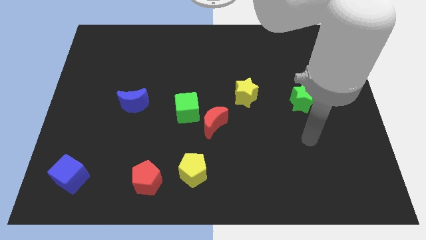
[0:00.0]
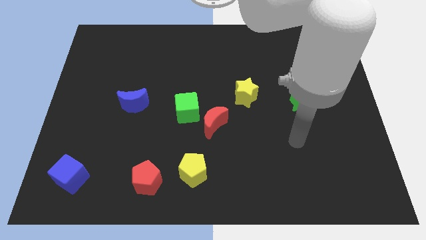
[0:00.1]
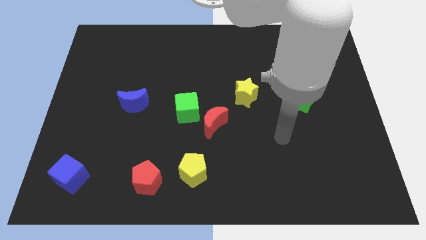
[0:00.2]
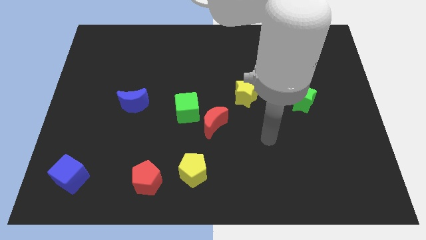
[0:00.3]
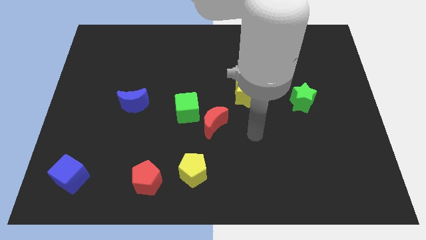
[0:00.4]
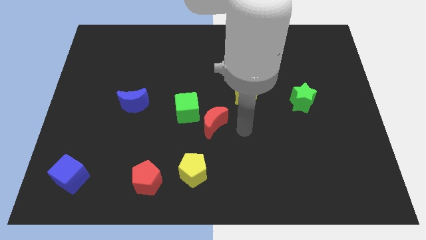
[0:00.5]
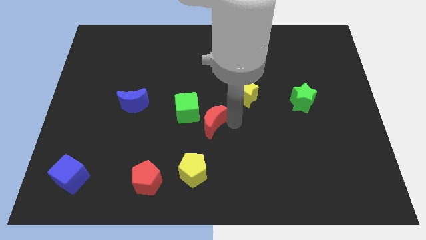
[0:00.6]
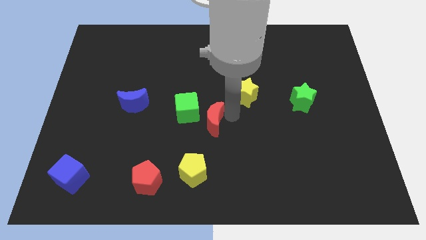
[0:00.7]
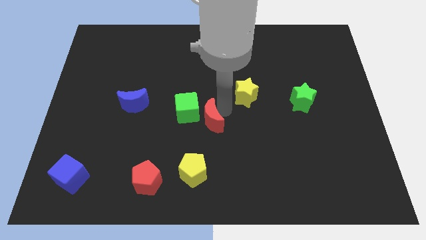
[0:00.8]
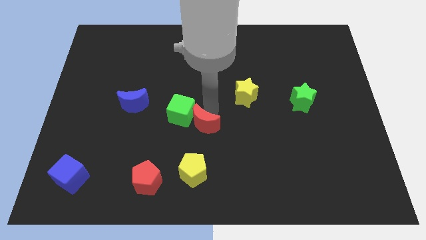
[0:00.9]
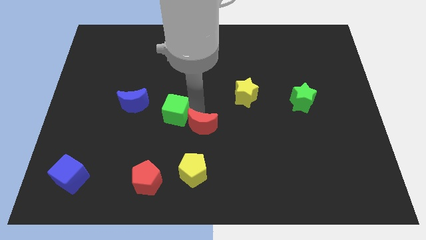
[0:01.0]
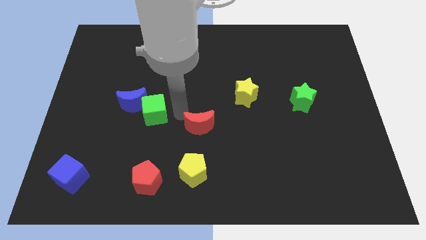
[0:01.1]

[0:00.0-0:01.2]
move the red moon away from the green cube

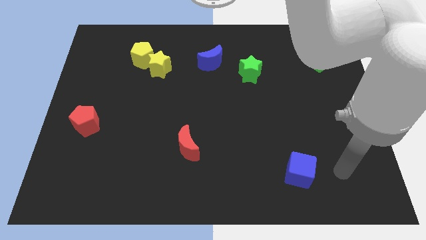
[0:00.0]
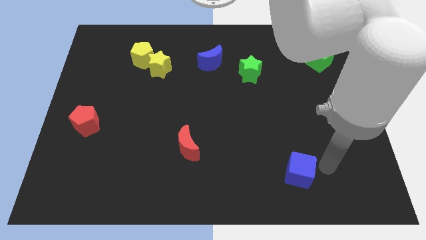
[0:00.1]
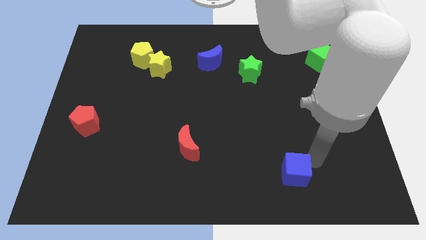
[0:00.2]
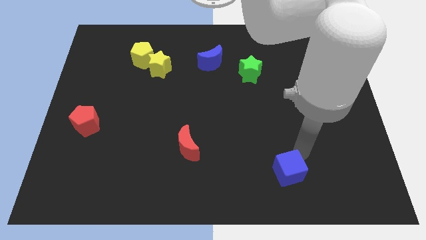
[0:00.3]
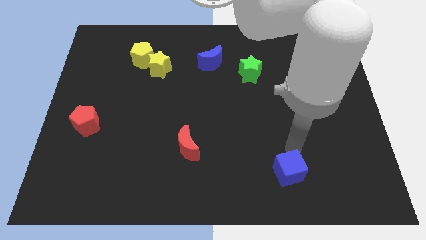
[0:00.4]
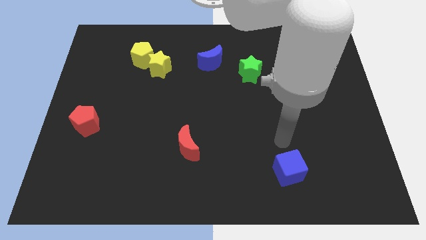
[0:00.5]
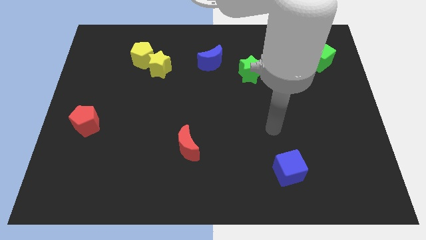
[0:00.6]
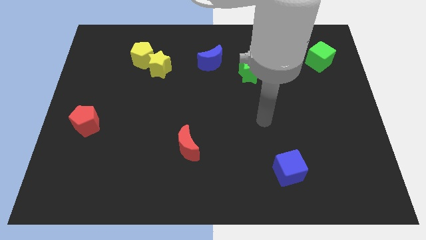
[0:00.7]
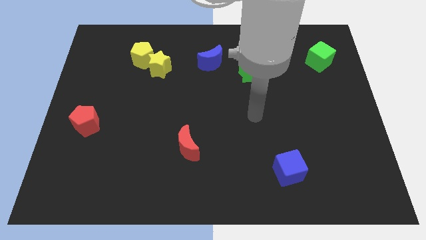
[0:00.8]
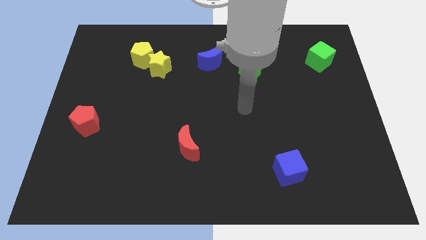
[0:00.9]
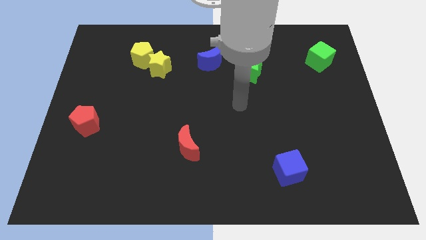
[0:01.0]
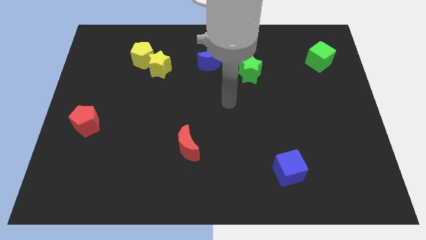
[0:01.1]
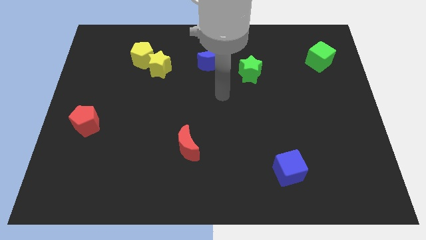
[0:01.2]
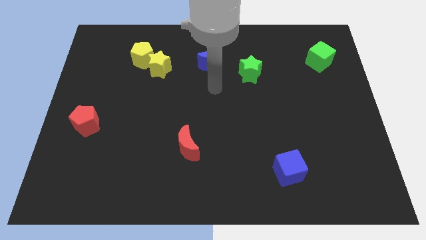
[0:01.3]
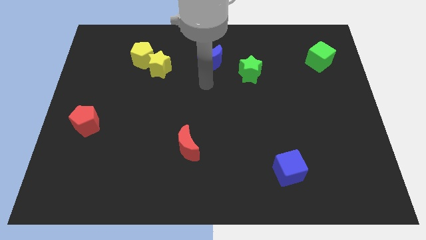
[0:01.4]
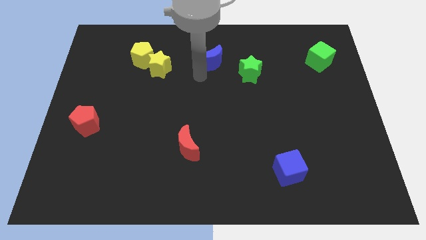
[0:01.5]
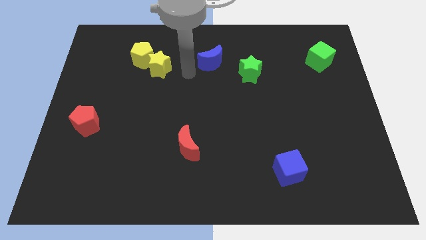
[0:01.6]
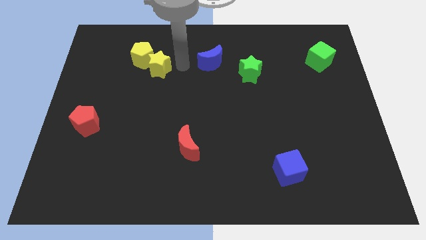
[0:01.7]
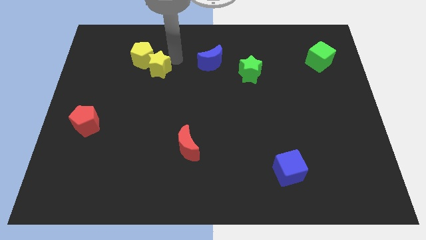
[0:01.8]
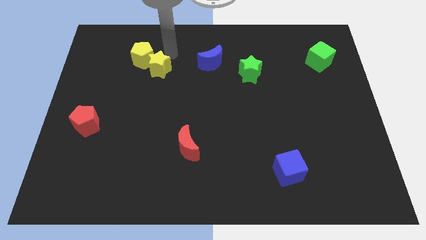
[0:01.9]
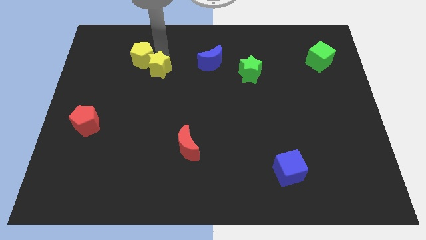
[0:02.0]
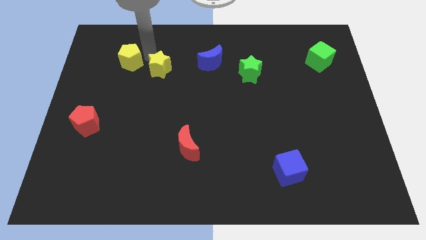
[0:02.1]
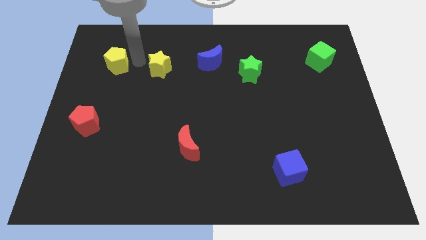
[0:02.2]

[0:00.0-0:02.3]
separate the yellow star from the yellow pentagon

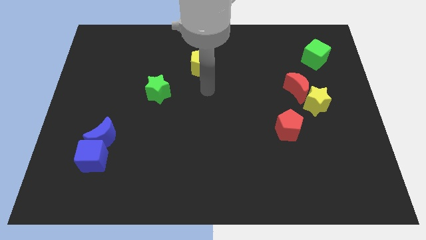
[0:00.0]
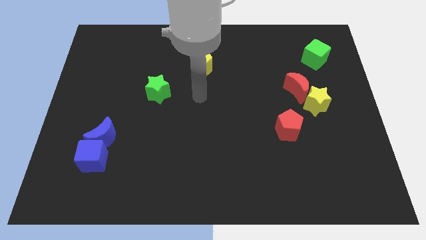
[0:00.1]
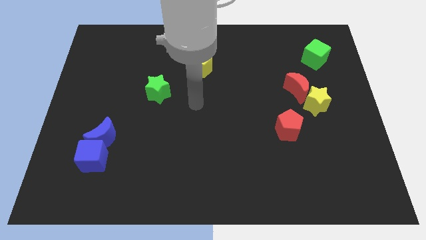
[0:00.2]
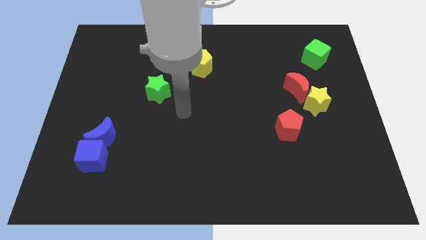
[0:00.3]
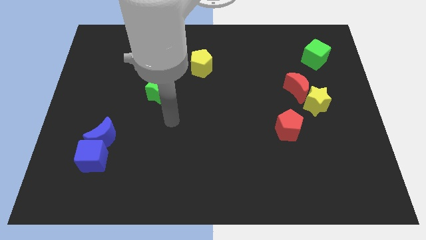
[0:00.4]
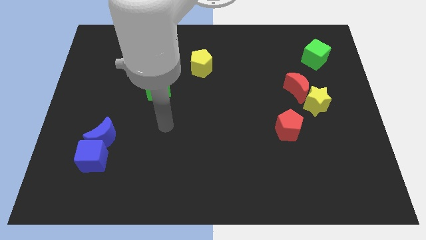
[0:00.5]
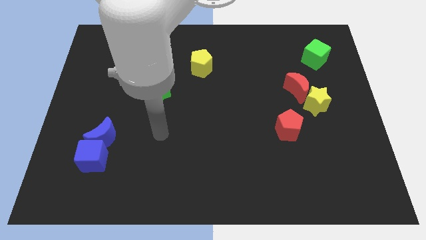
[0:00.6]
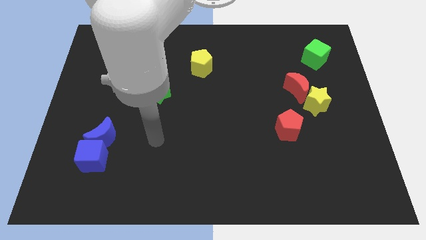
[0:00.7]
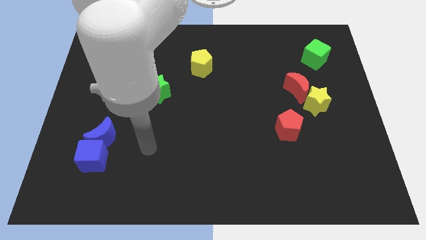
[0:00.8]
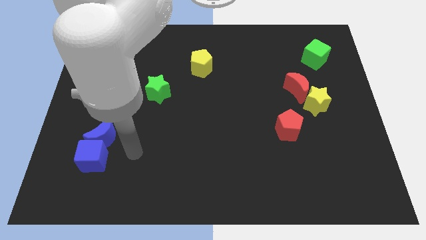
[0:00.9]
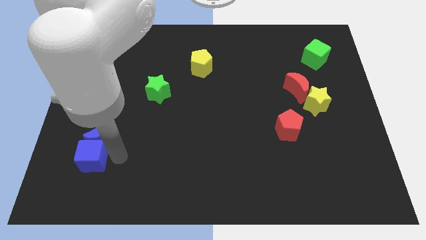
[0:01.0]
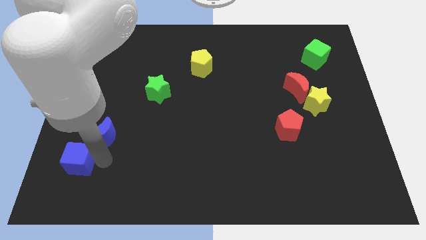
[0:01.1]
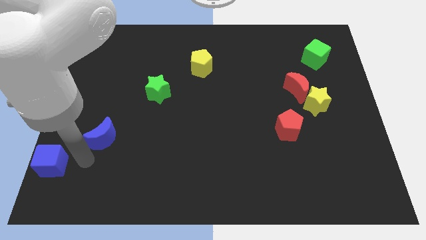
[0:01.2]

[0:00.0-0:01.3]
move the blue moon away from the blue cube

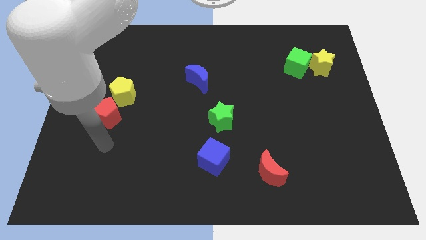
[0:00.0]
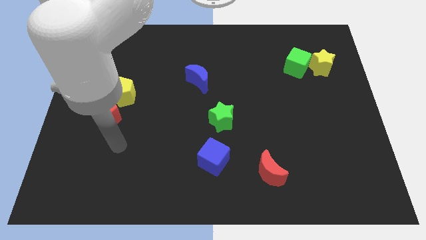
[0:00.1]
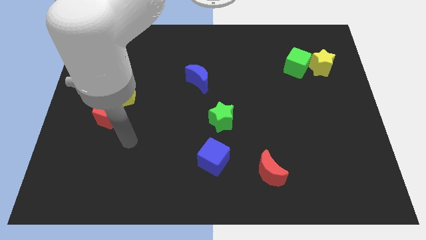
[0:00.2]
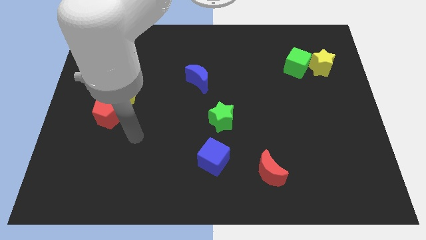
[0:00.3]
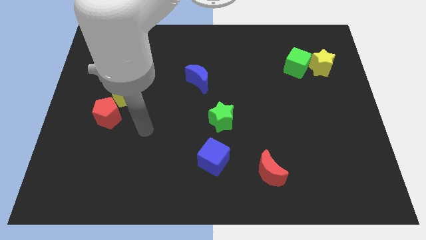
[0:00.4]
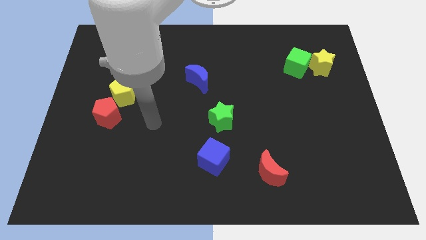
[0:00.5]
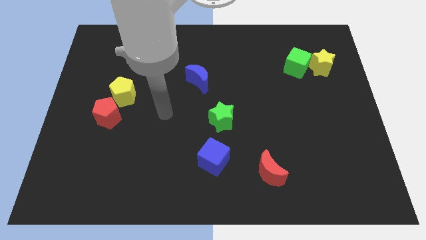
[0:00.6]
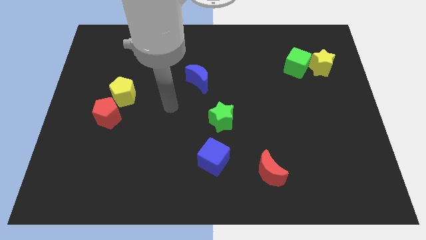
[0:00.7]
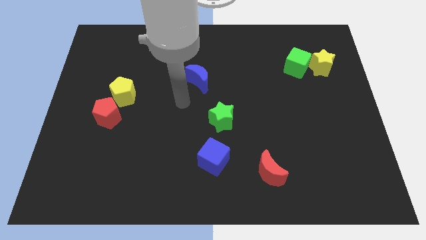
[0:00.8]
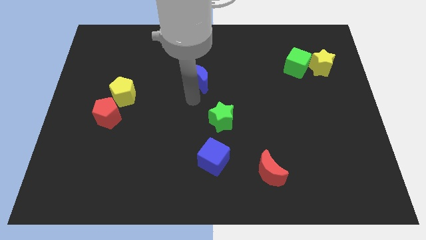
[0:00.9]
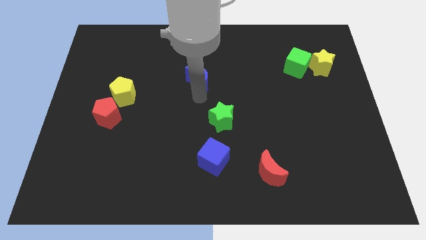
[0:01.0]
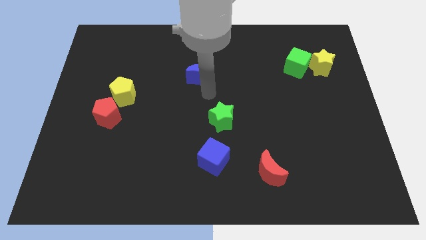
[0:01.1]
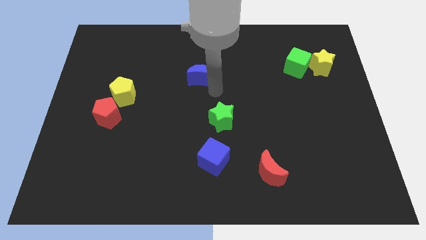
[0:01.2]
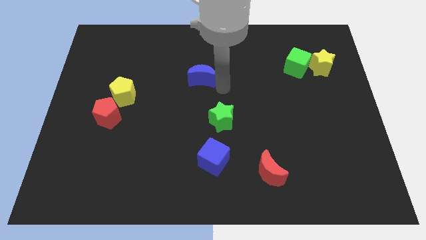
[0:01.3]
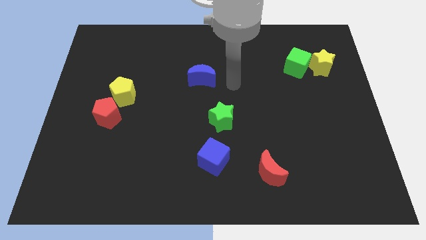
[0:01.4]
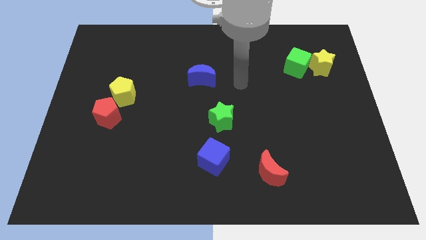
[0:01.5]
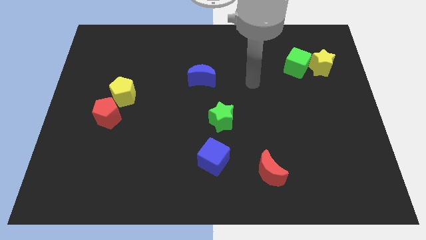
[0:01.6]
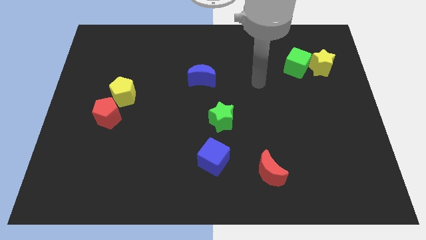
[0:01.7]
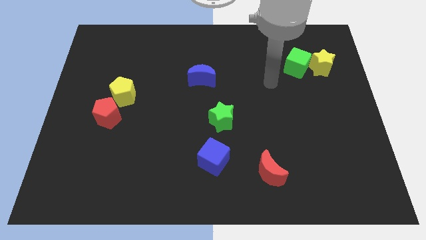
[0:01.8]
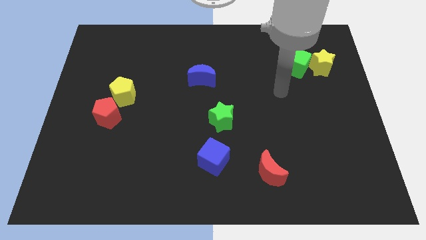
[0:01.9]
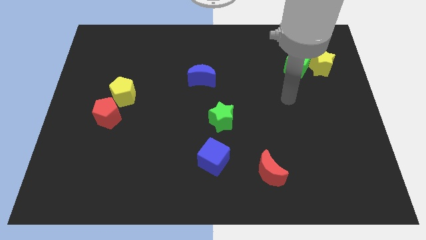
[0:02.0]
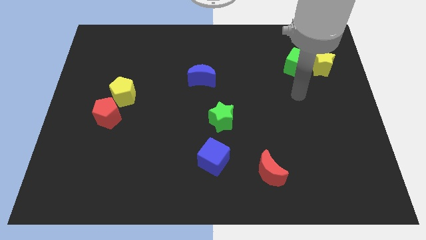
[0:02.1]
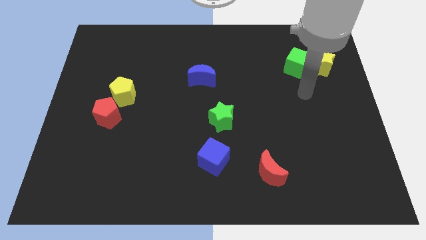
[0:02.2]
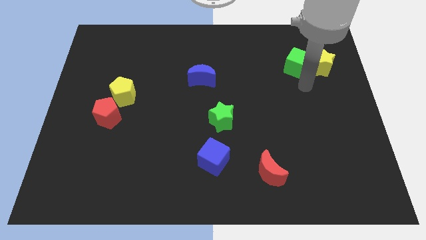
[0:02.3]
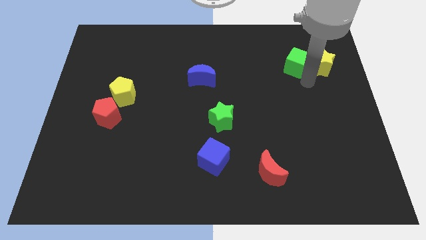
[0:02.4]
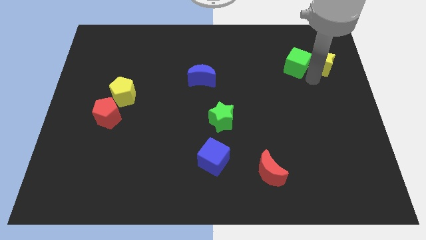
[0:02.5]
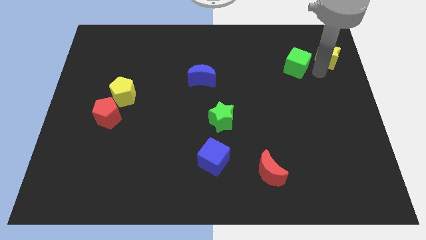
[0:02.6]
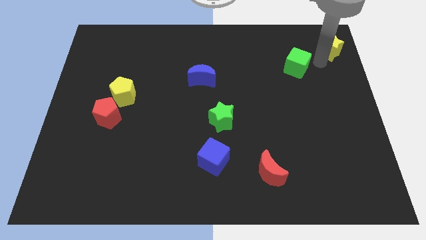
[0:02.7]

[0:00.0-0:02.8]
separate the green cube from the yellow star

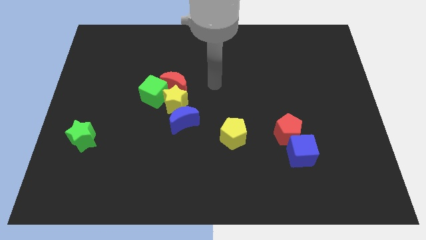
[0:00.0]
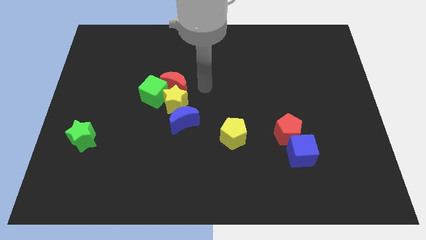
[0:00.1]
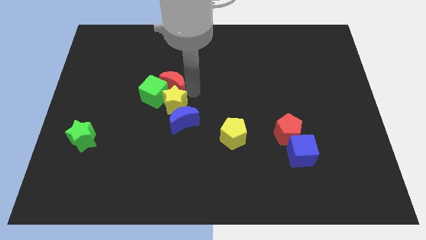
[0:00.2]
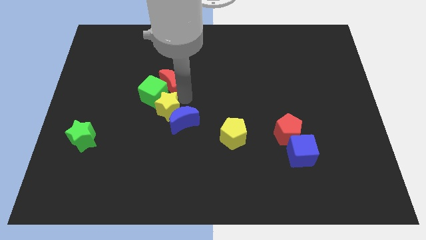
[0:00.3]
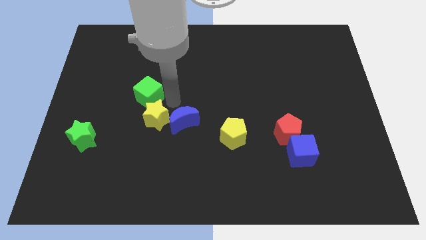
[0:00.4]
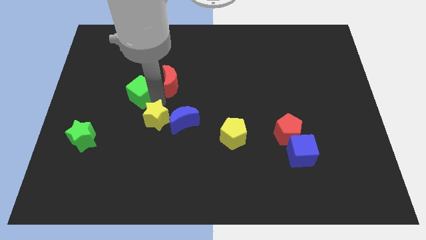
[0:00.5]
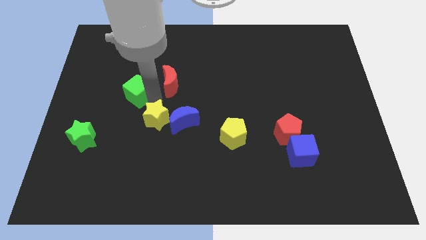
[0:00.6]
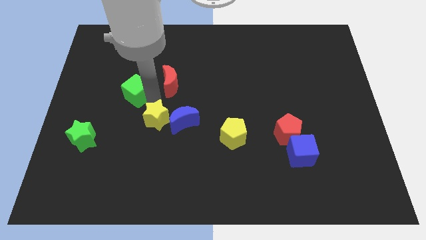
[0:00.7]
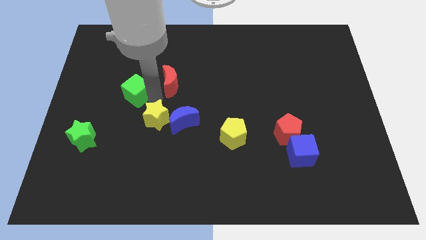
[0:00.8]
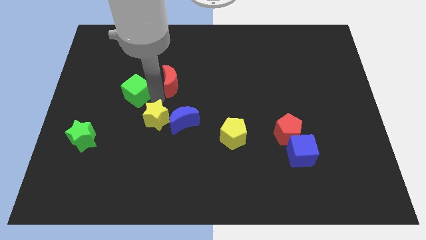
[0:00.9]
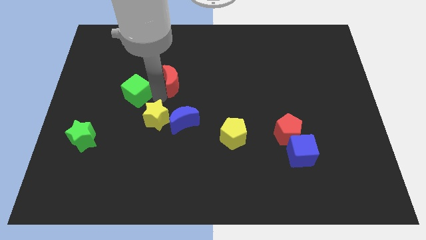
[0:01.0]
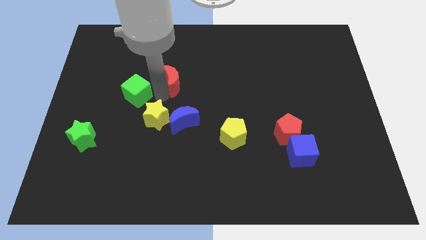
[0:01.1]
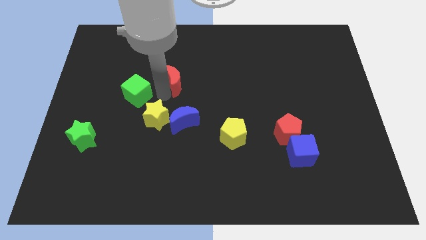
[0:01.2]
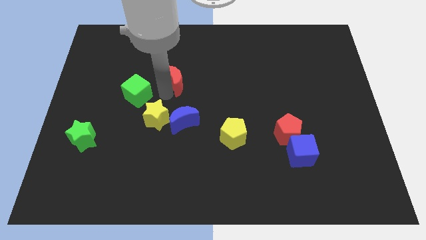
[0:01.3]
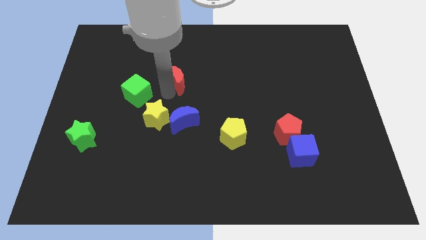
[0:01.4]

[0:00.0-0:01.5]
move the red moon away from the yellow star and green cube

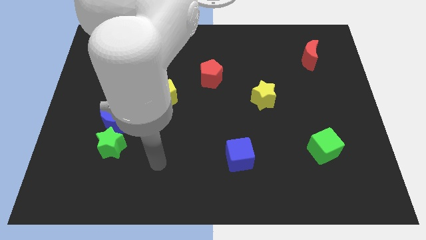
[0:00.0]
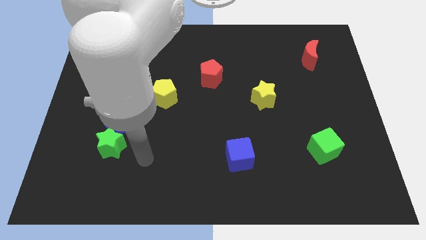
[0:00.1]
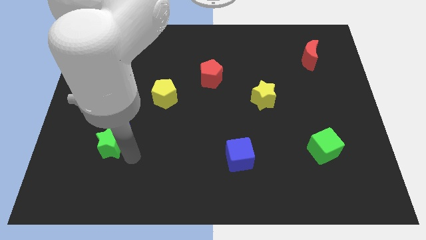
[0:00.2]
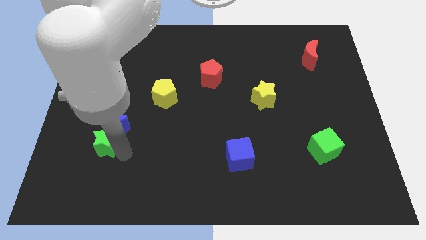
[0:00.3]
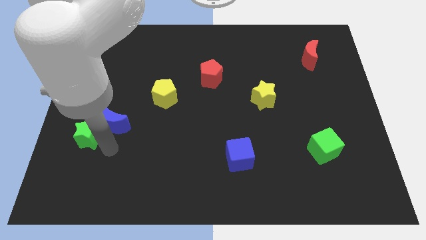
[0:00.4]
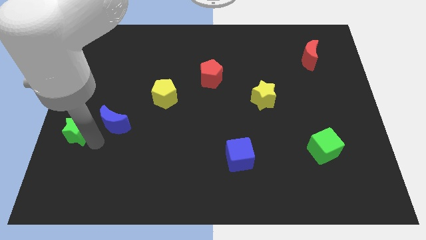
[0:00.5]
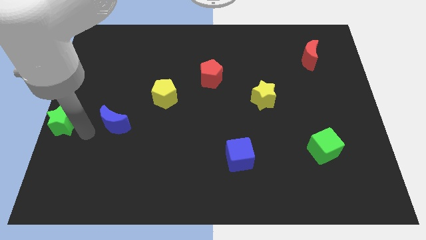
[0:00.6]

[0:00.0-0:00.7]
move the blue moon away from the green star